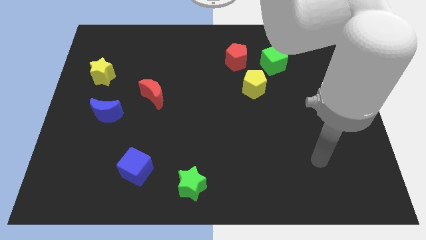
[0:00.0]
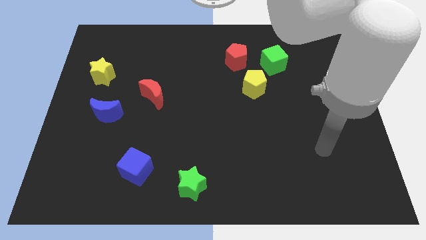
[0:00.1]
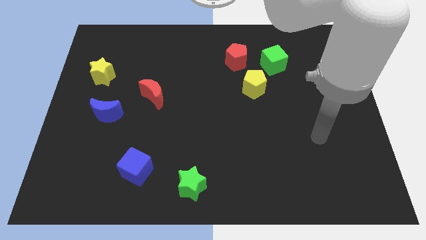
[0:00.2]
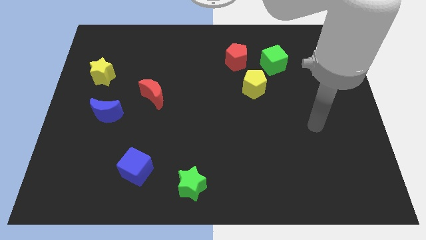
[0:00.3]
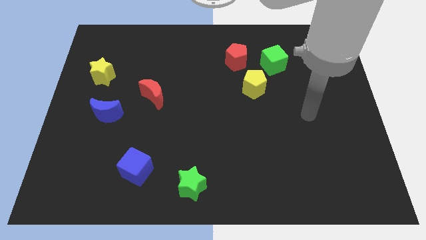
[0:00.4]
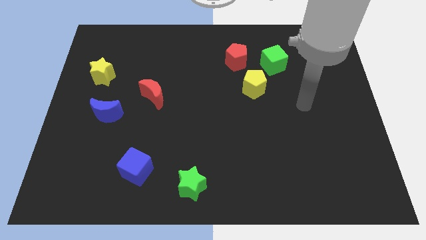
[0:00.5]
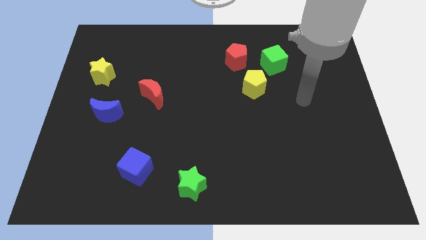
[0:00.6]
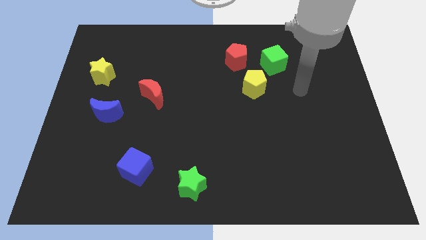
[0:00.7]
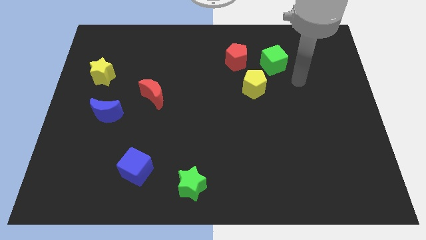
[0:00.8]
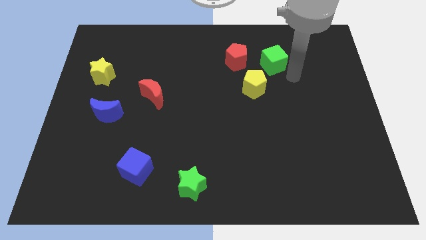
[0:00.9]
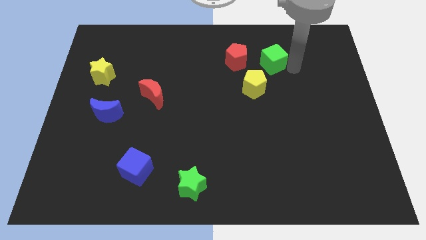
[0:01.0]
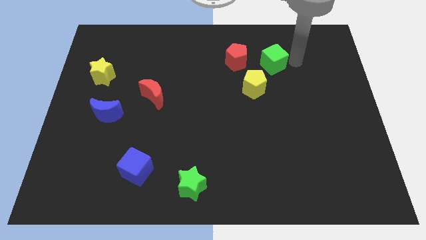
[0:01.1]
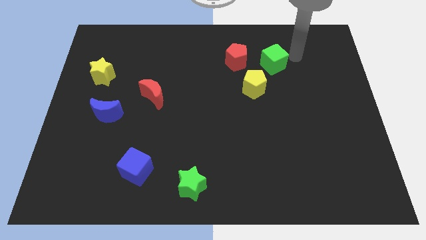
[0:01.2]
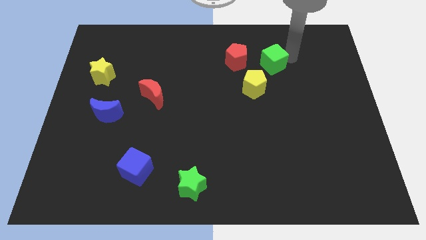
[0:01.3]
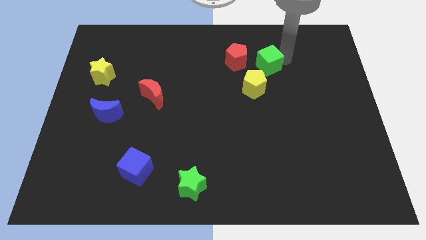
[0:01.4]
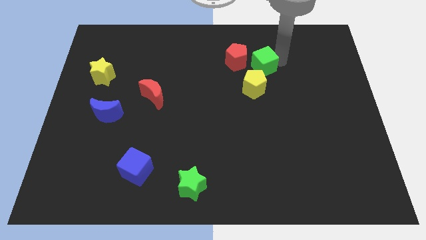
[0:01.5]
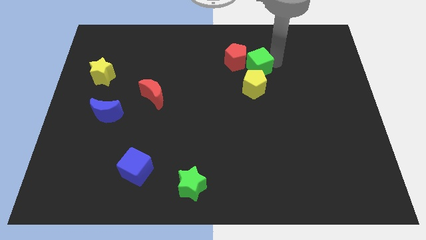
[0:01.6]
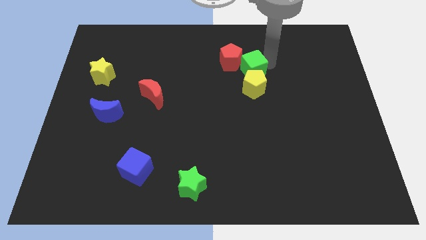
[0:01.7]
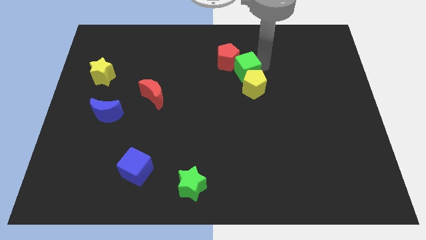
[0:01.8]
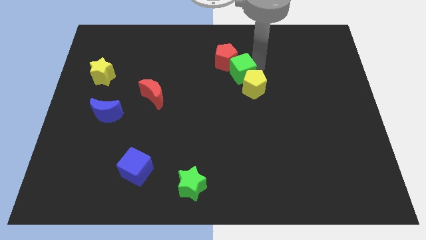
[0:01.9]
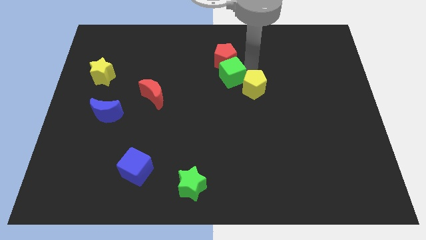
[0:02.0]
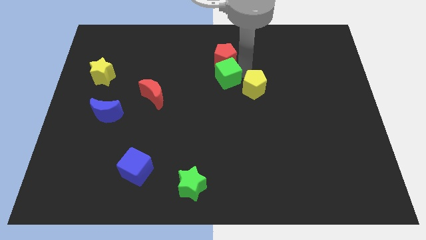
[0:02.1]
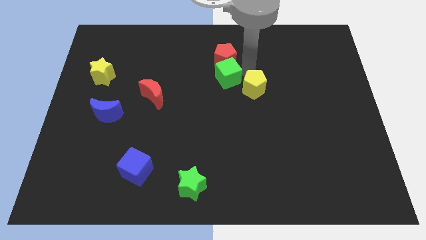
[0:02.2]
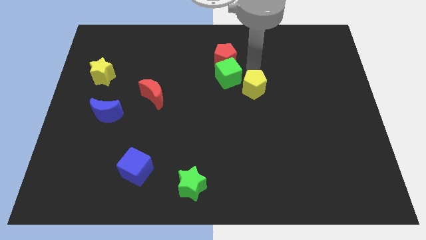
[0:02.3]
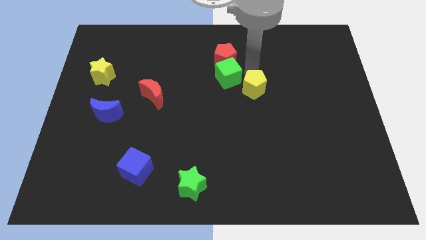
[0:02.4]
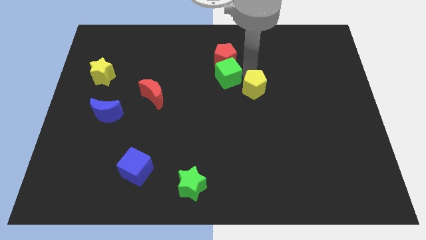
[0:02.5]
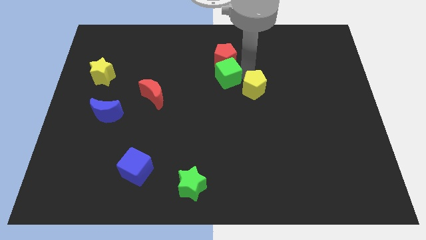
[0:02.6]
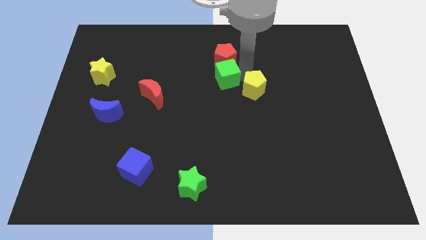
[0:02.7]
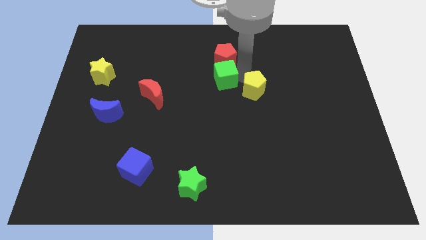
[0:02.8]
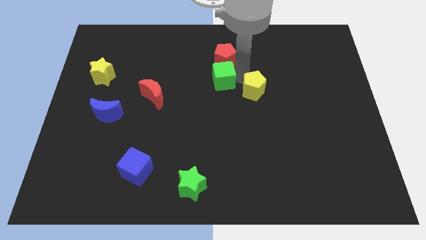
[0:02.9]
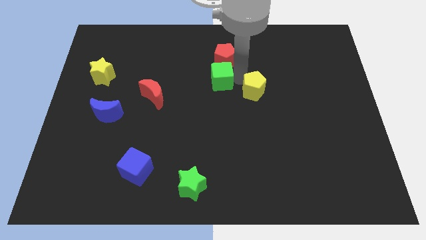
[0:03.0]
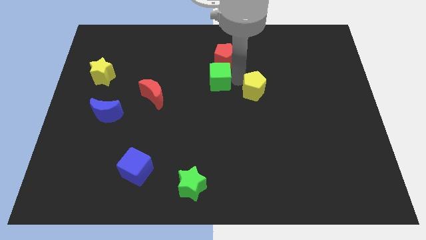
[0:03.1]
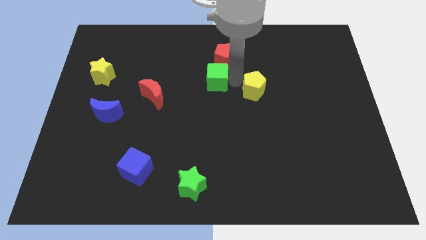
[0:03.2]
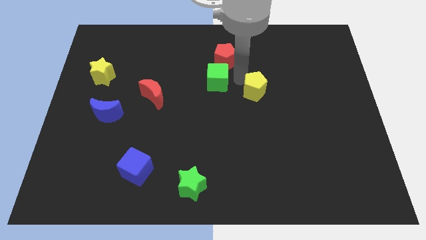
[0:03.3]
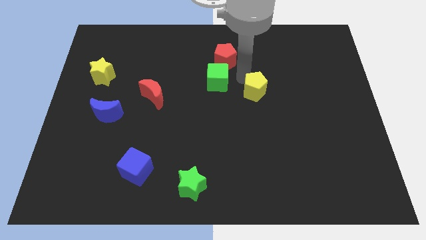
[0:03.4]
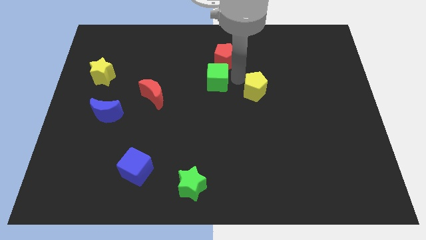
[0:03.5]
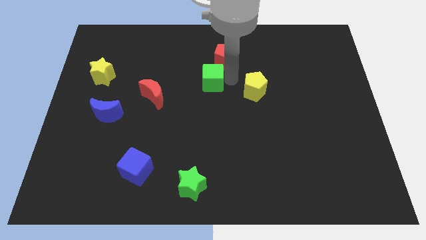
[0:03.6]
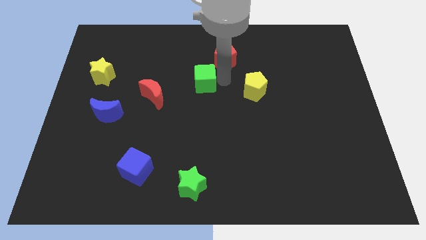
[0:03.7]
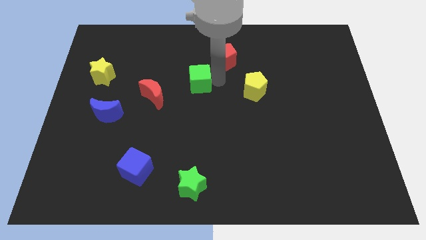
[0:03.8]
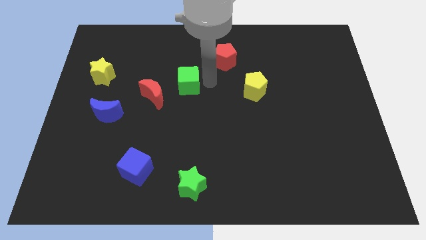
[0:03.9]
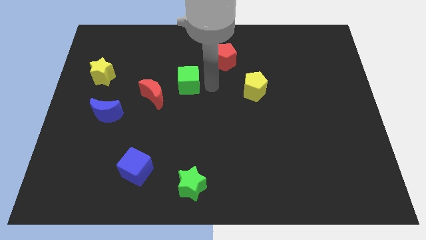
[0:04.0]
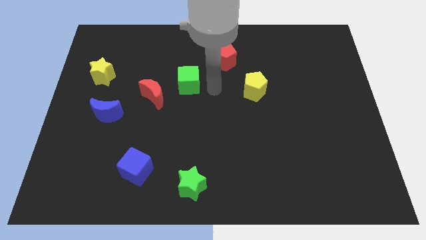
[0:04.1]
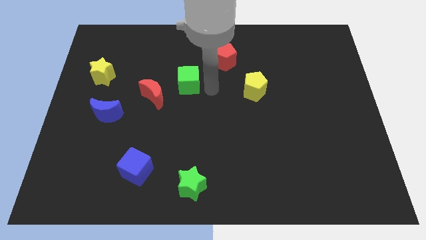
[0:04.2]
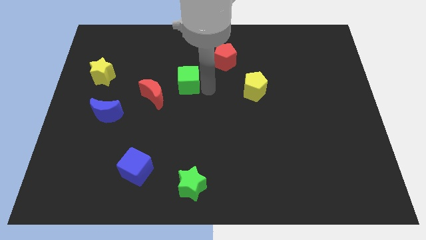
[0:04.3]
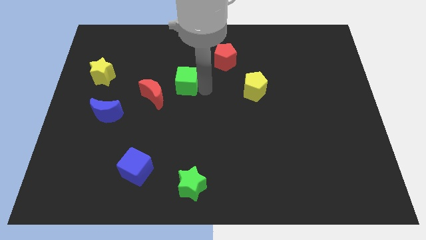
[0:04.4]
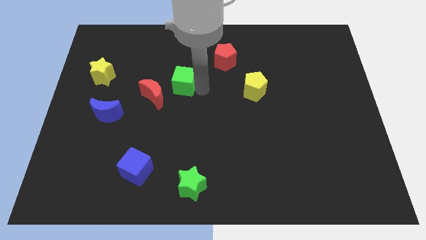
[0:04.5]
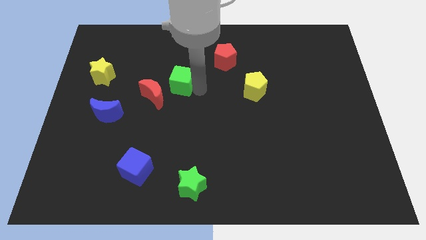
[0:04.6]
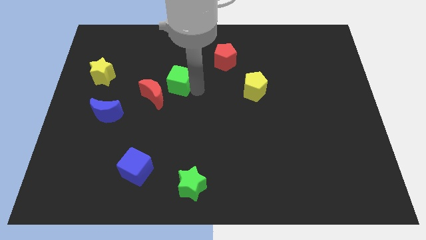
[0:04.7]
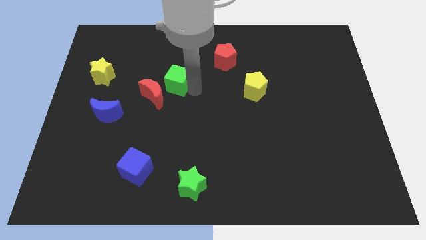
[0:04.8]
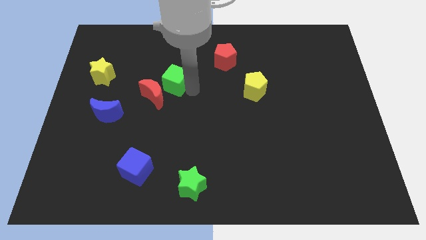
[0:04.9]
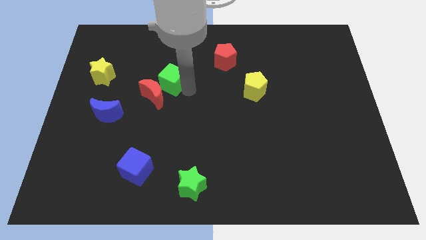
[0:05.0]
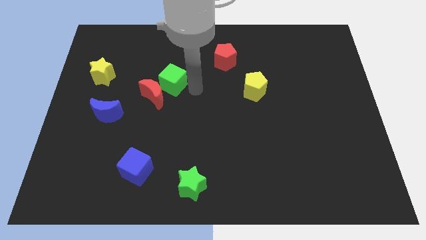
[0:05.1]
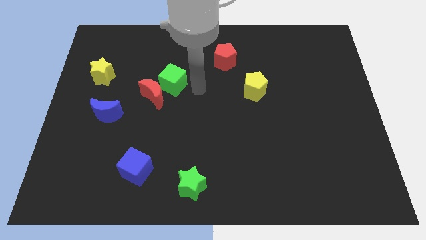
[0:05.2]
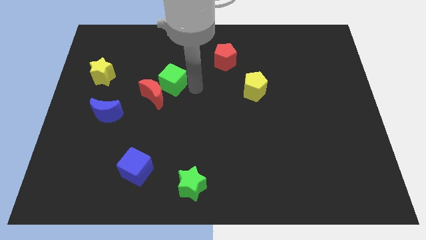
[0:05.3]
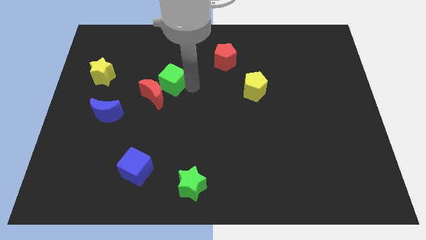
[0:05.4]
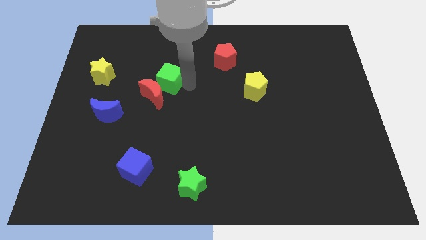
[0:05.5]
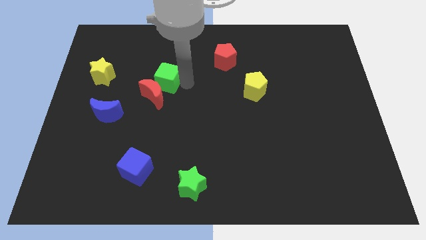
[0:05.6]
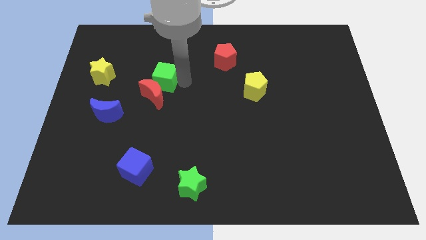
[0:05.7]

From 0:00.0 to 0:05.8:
move the green cube just right of the yellow star

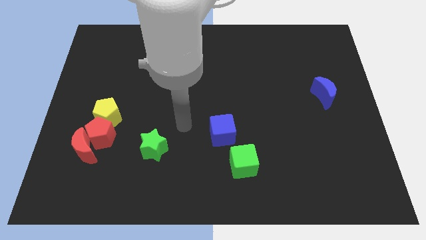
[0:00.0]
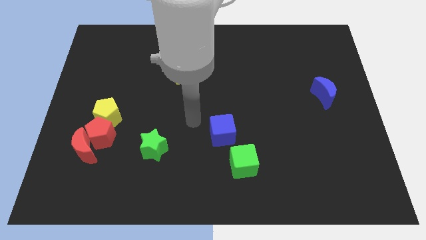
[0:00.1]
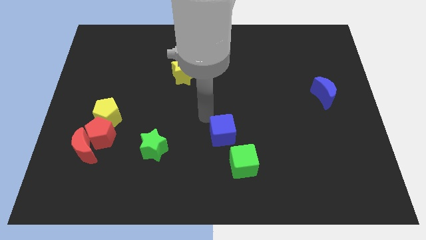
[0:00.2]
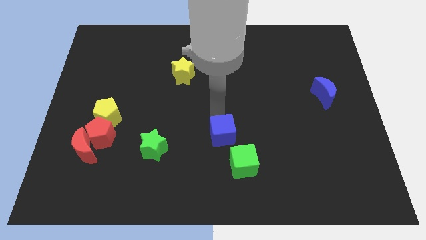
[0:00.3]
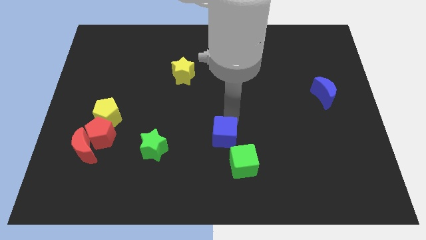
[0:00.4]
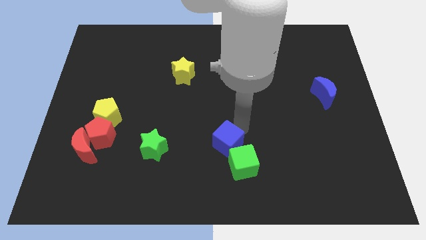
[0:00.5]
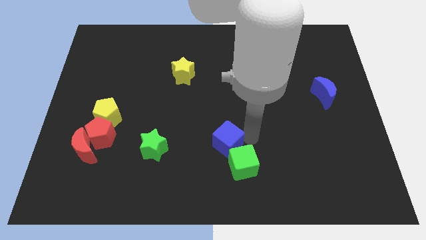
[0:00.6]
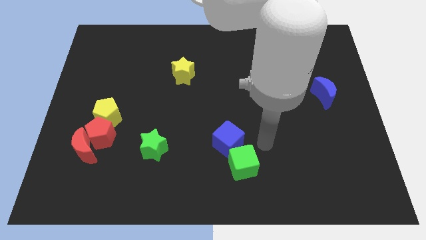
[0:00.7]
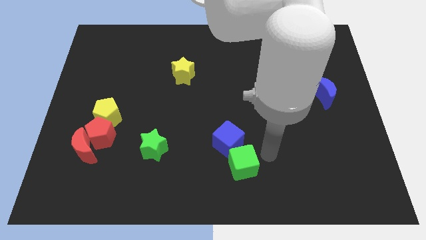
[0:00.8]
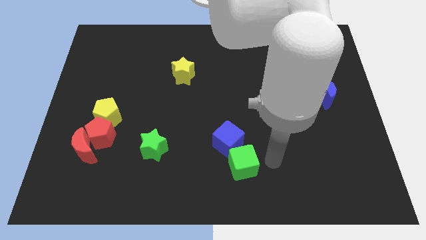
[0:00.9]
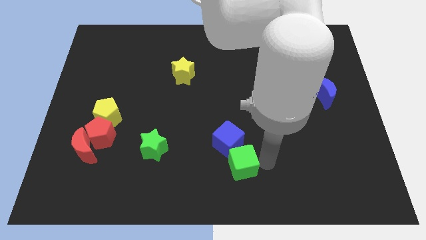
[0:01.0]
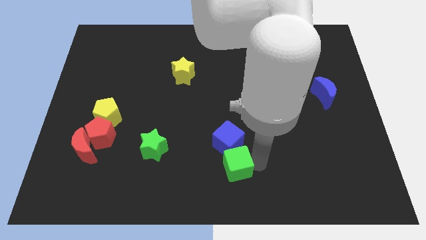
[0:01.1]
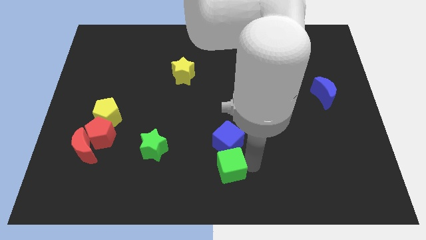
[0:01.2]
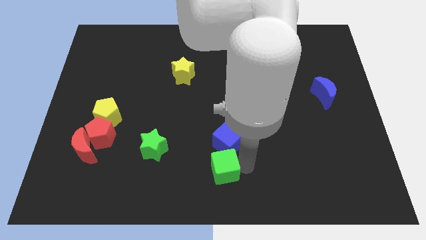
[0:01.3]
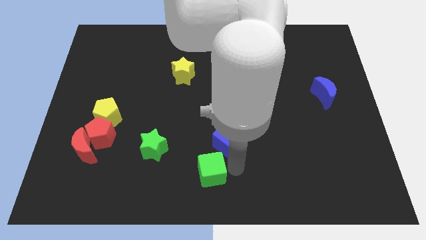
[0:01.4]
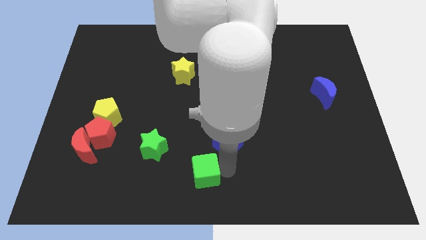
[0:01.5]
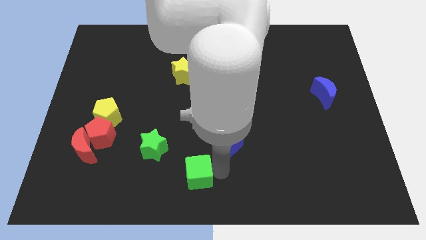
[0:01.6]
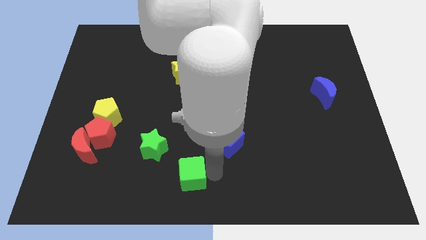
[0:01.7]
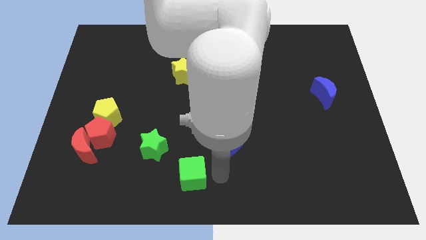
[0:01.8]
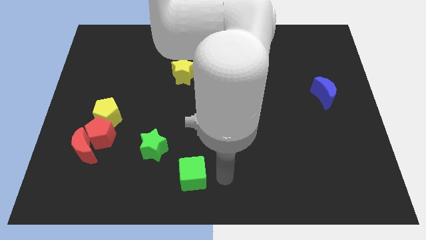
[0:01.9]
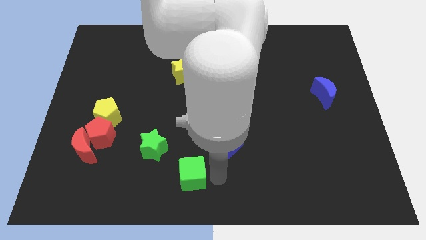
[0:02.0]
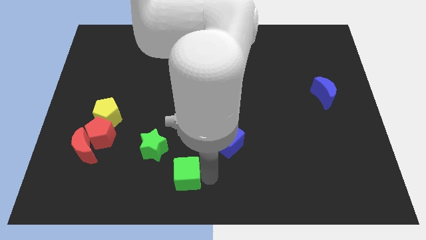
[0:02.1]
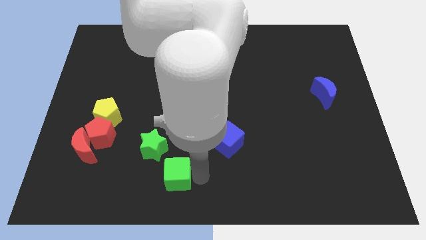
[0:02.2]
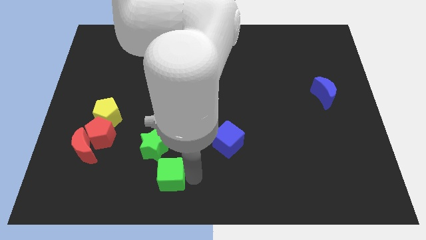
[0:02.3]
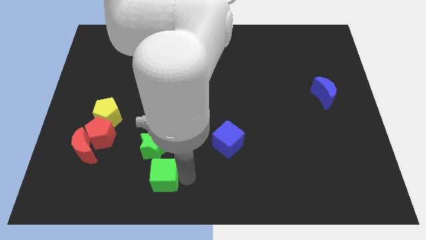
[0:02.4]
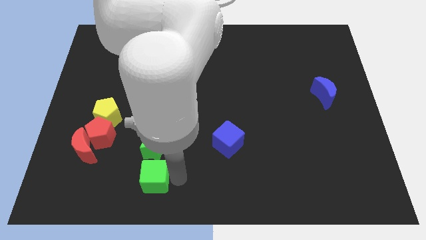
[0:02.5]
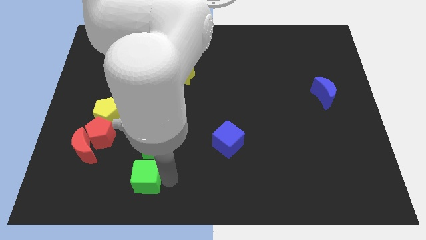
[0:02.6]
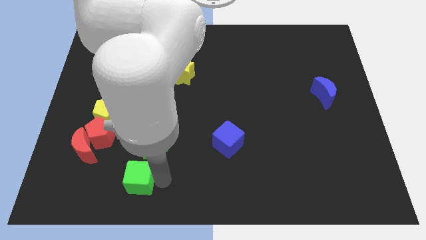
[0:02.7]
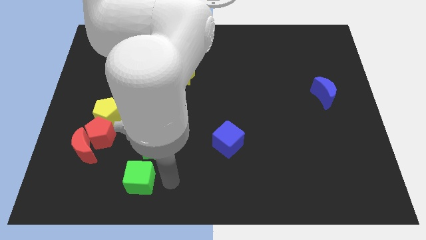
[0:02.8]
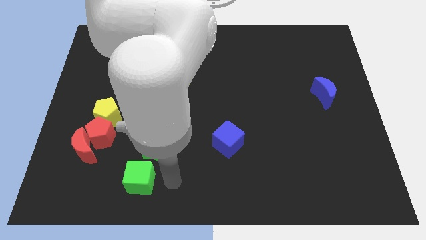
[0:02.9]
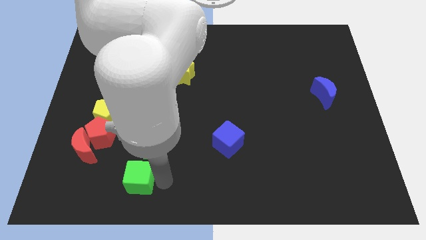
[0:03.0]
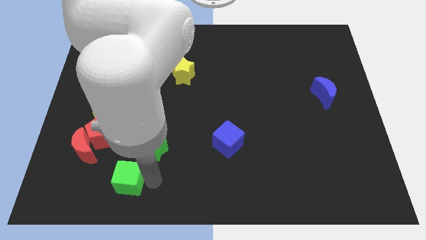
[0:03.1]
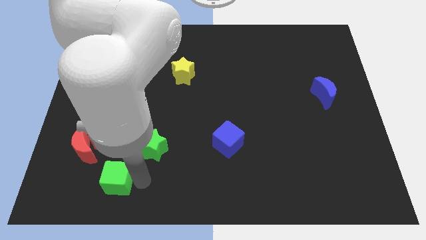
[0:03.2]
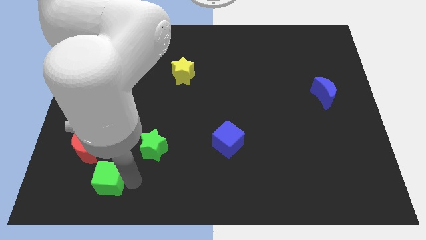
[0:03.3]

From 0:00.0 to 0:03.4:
slide the green cube to the bottom side of the red pentagon
